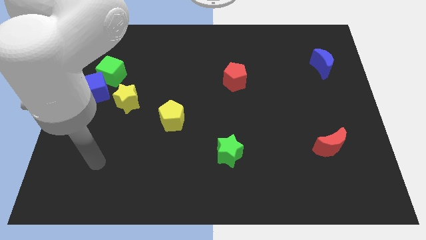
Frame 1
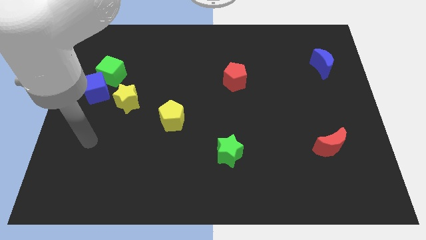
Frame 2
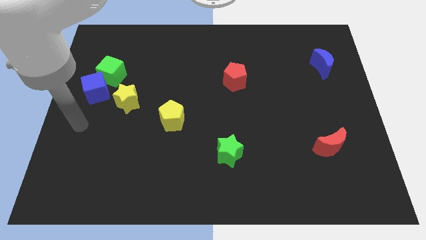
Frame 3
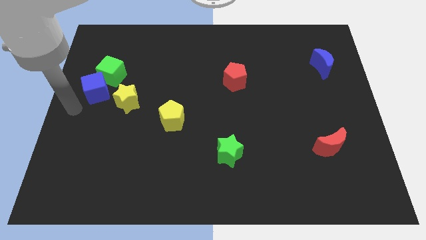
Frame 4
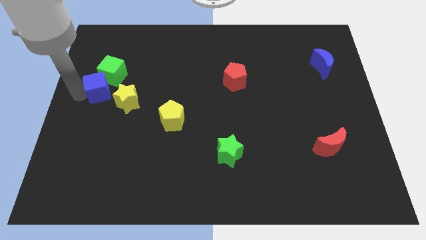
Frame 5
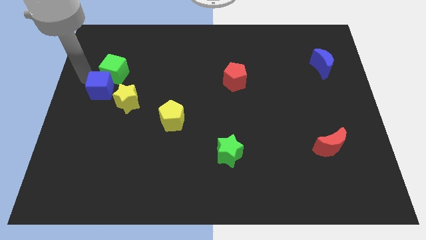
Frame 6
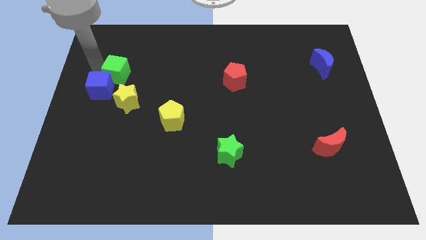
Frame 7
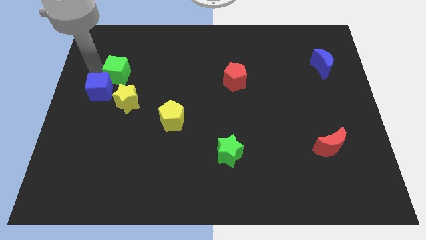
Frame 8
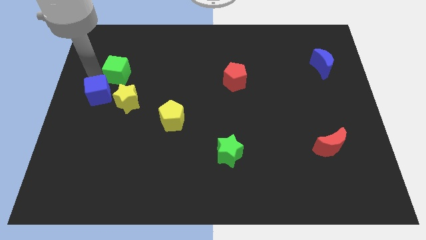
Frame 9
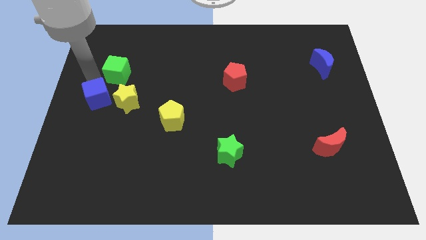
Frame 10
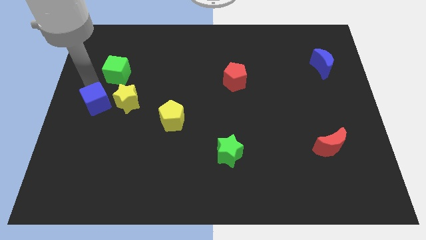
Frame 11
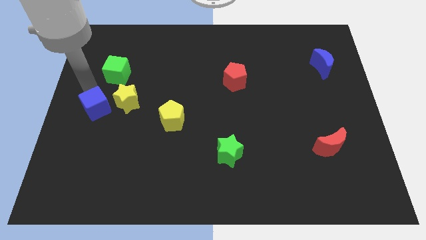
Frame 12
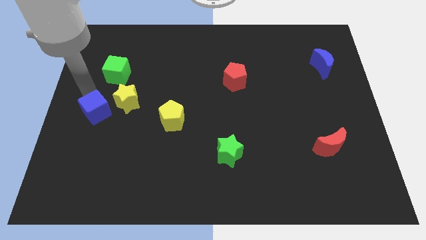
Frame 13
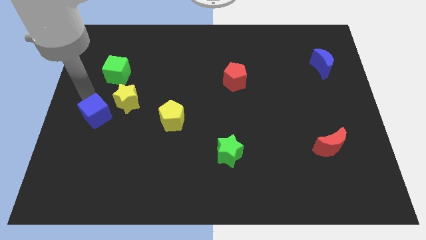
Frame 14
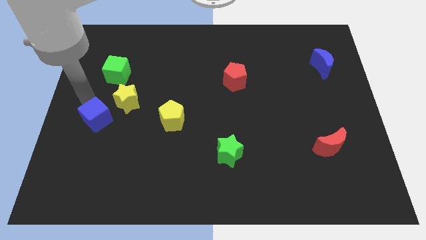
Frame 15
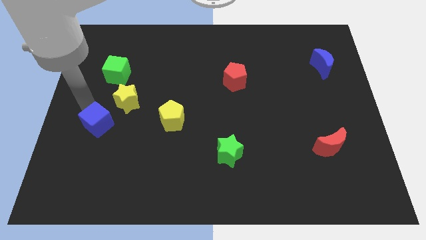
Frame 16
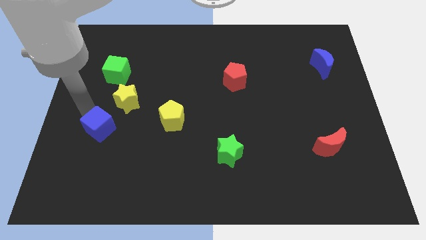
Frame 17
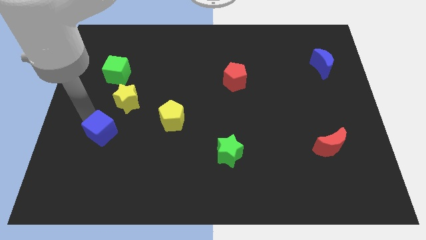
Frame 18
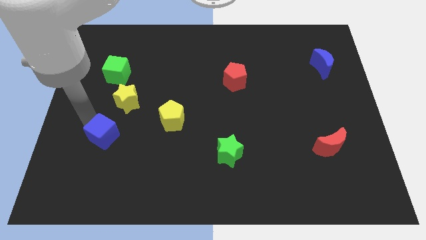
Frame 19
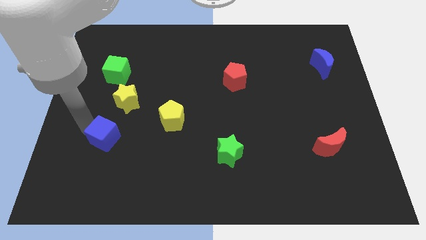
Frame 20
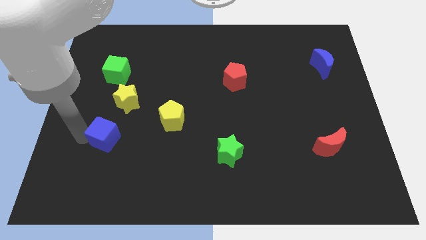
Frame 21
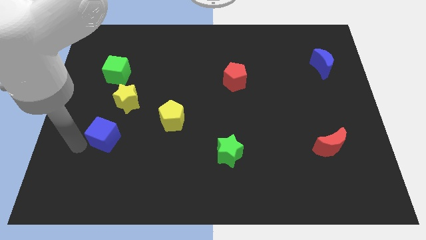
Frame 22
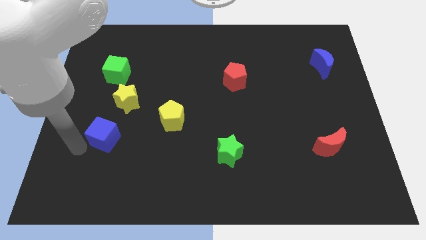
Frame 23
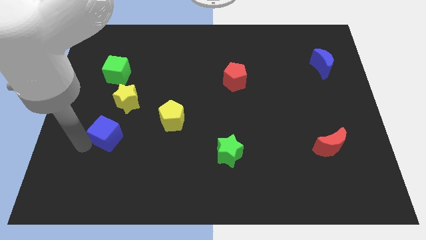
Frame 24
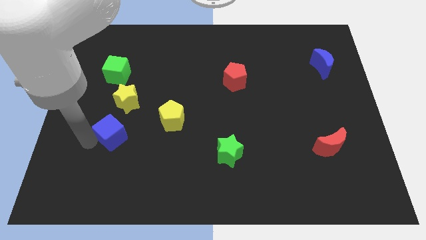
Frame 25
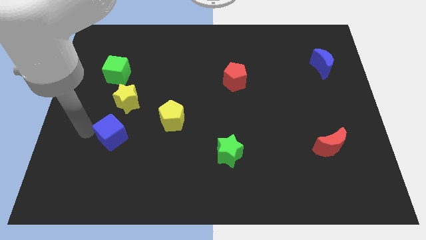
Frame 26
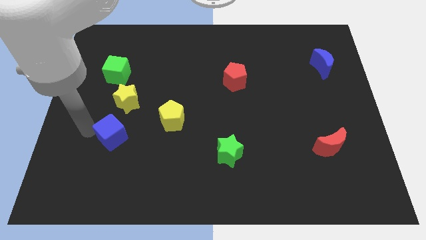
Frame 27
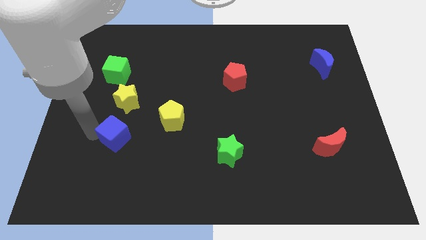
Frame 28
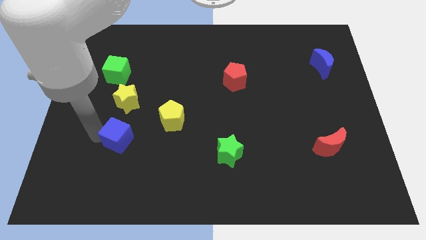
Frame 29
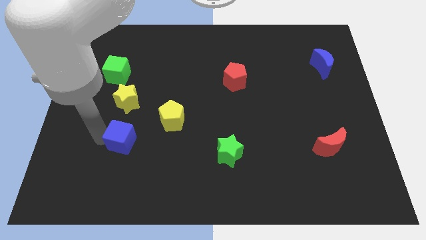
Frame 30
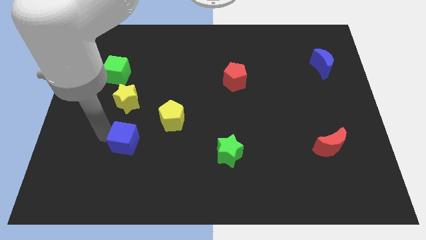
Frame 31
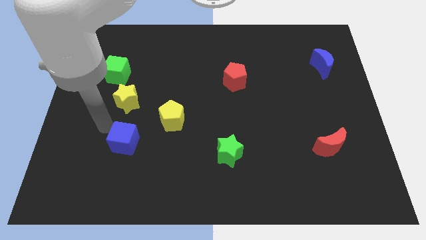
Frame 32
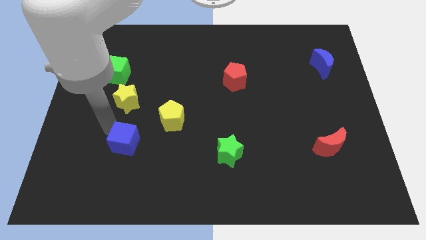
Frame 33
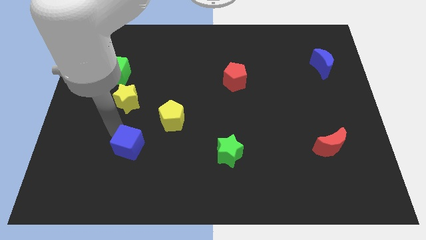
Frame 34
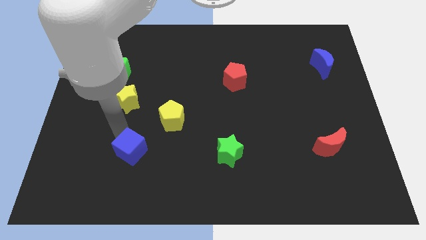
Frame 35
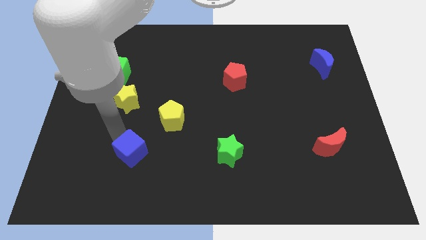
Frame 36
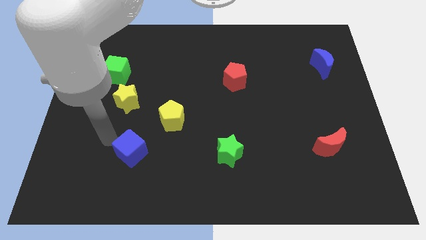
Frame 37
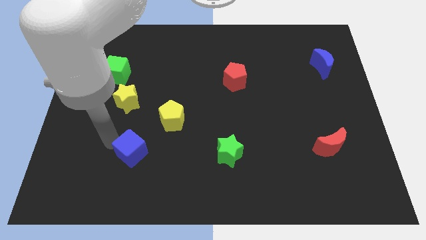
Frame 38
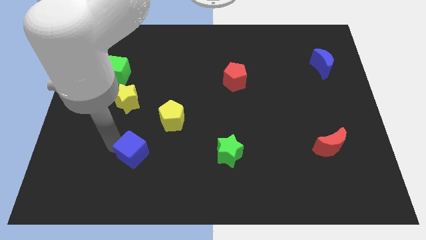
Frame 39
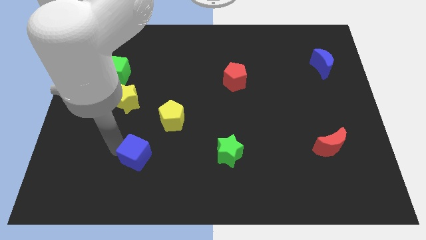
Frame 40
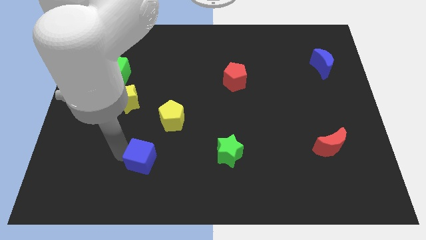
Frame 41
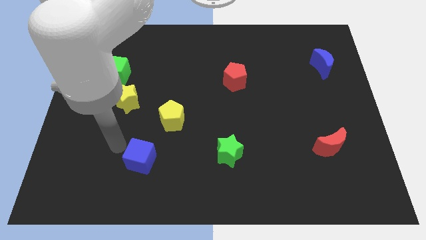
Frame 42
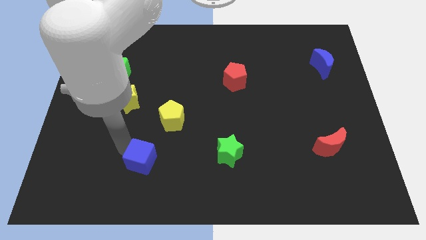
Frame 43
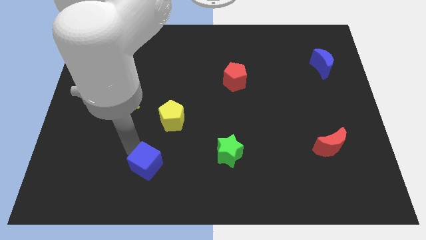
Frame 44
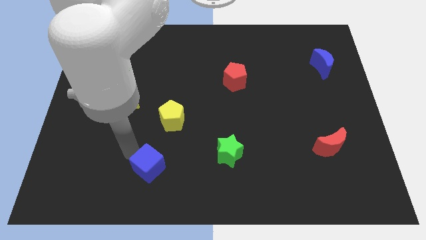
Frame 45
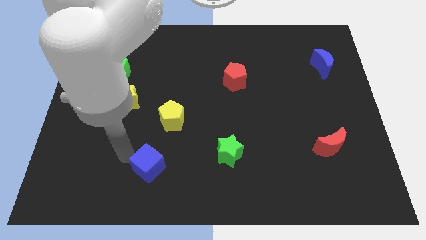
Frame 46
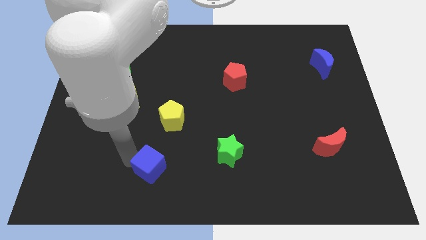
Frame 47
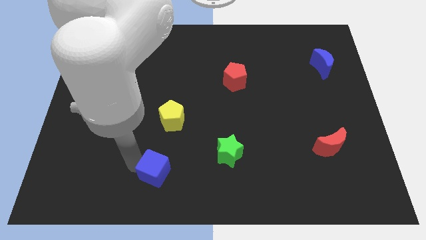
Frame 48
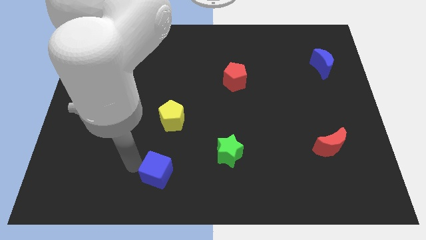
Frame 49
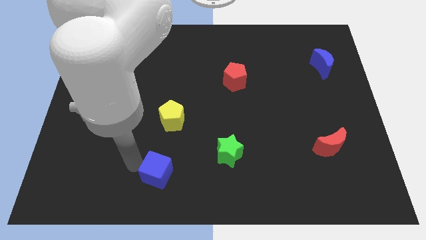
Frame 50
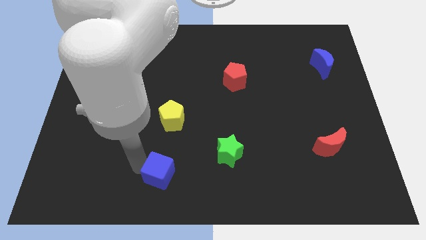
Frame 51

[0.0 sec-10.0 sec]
move the blue cube to the bottom

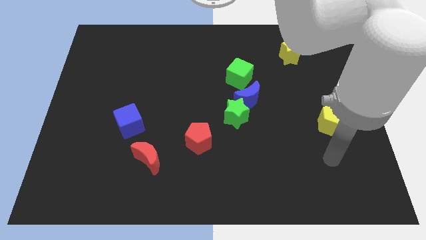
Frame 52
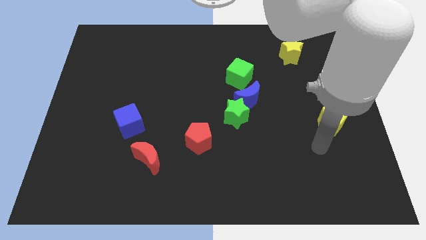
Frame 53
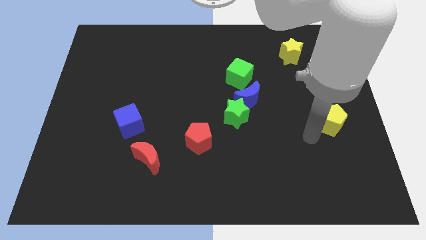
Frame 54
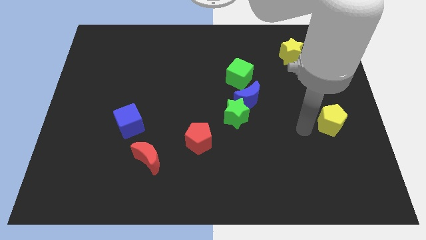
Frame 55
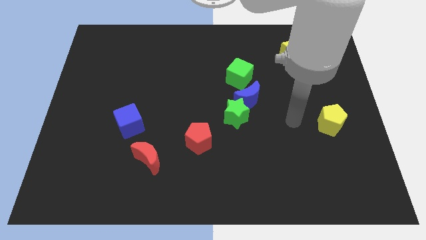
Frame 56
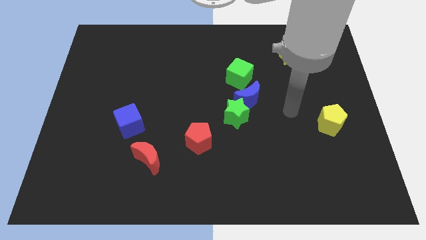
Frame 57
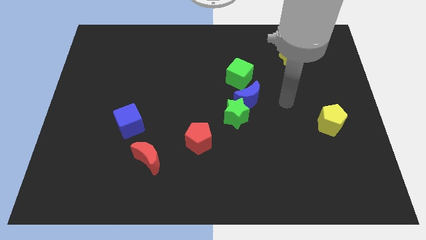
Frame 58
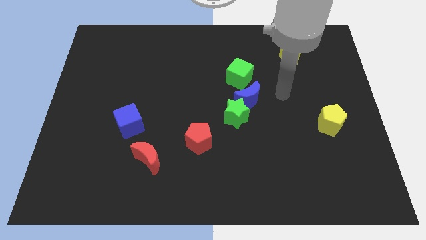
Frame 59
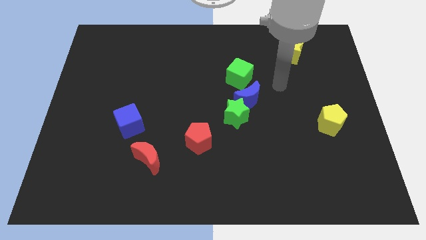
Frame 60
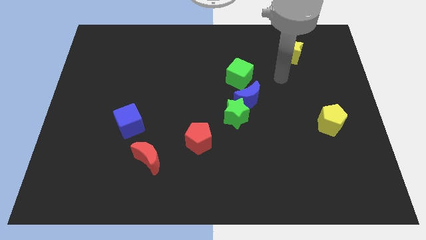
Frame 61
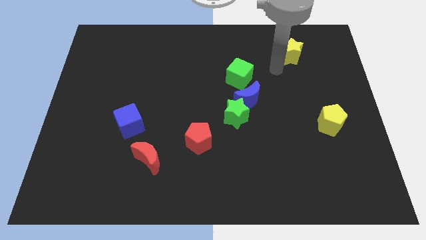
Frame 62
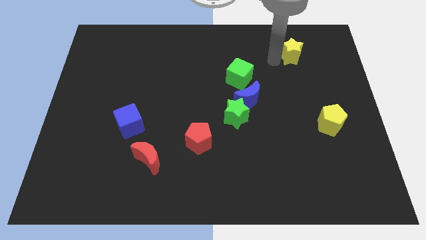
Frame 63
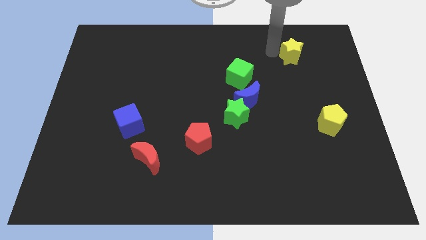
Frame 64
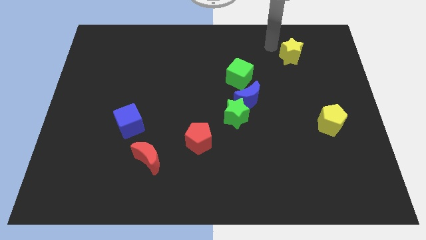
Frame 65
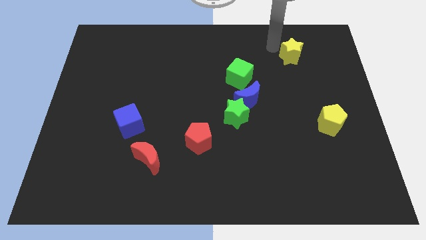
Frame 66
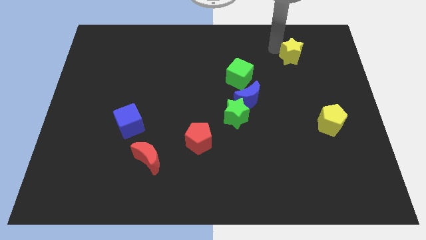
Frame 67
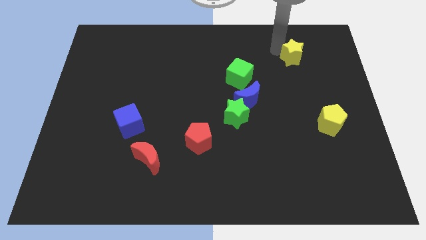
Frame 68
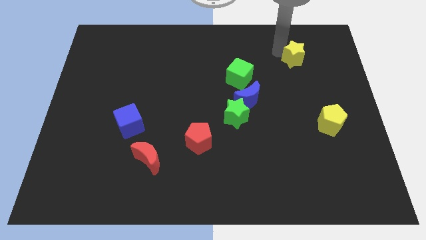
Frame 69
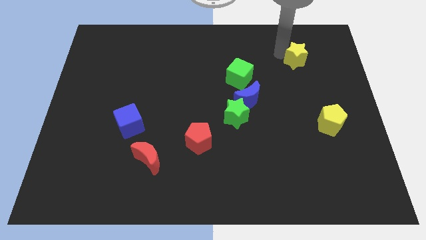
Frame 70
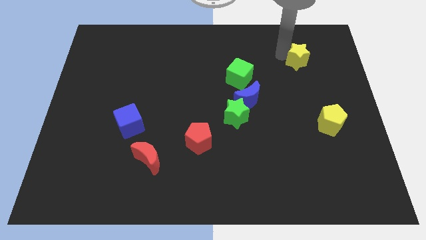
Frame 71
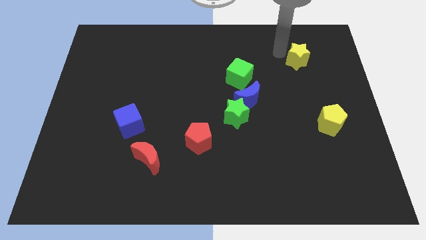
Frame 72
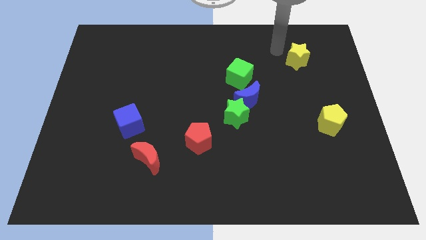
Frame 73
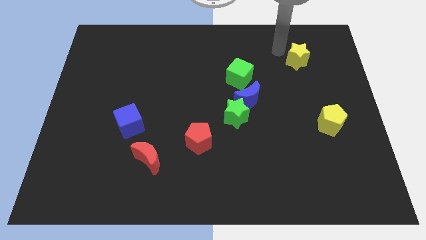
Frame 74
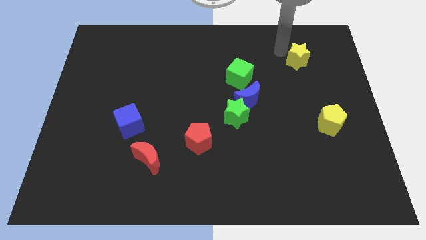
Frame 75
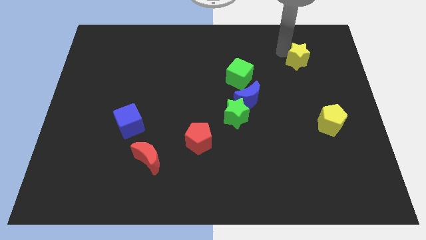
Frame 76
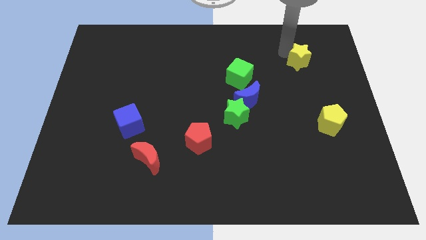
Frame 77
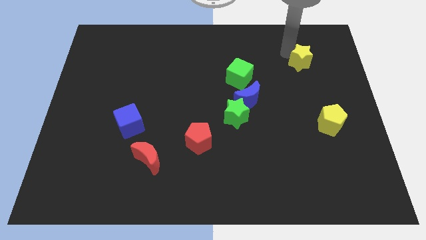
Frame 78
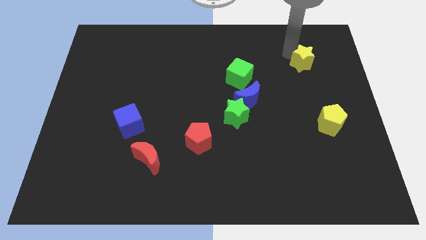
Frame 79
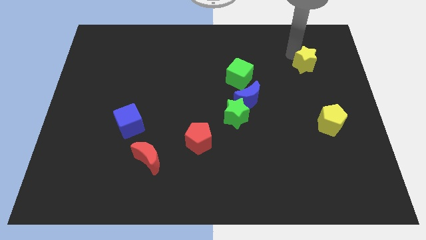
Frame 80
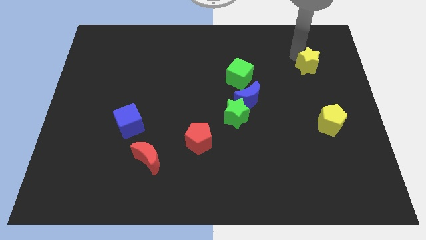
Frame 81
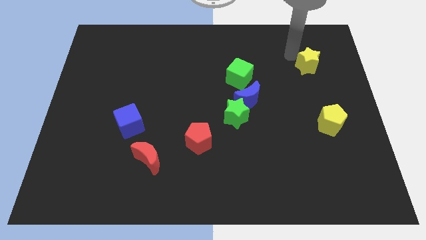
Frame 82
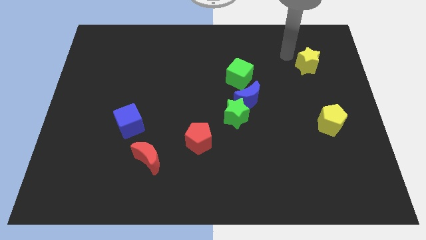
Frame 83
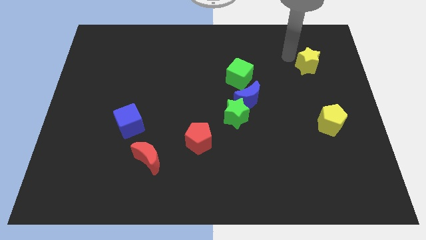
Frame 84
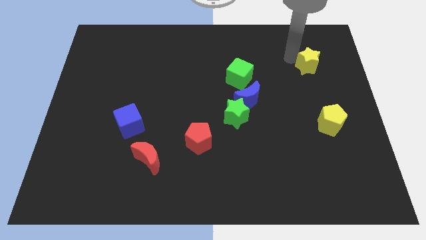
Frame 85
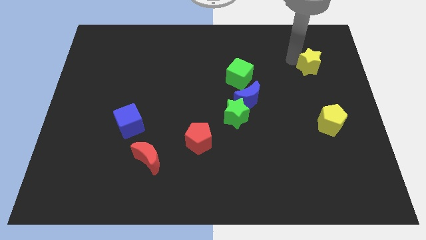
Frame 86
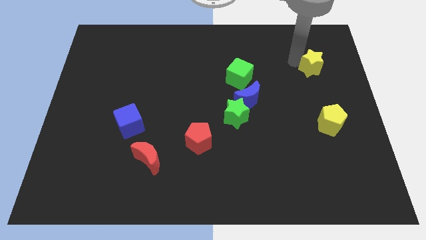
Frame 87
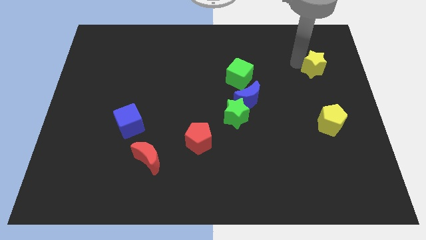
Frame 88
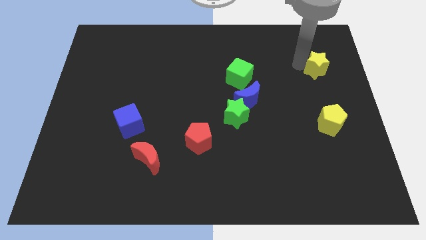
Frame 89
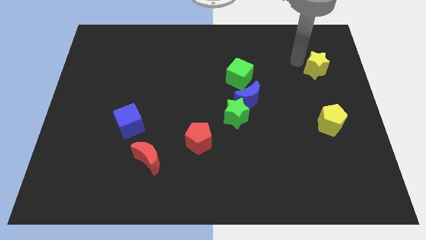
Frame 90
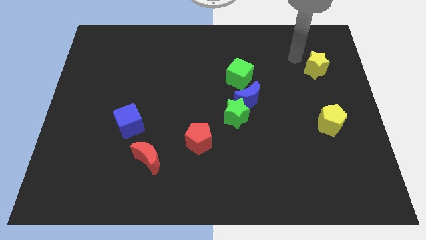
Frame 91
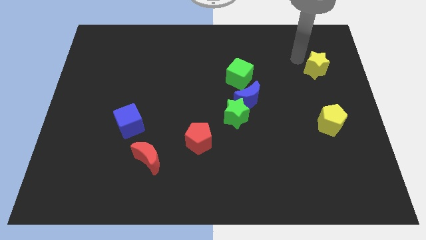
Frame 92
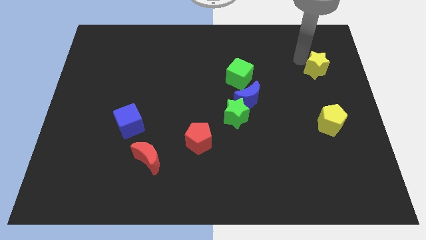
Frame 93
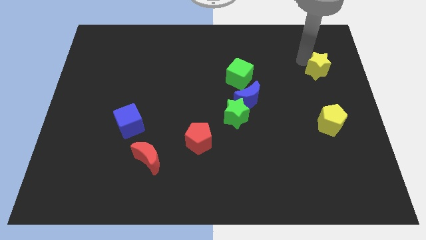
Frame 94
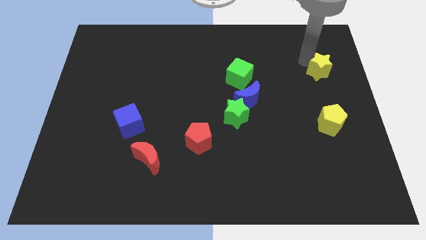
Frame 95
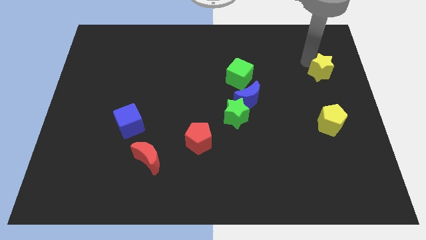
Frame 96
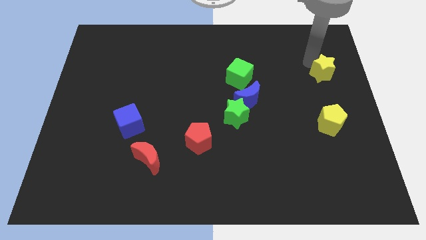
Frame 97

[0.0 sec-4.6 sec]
slide the yellow star to the right side
